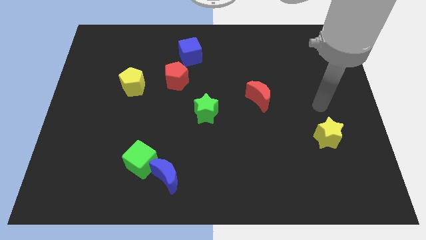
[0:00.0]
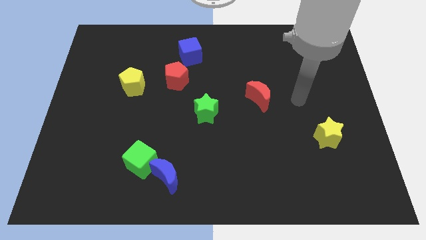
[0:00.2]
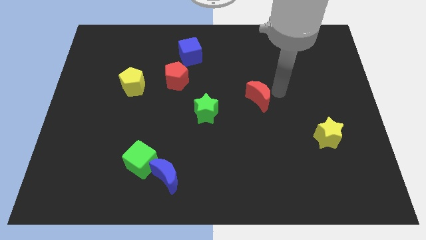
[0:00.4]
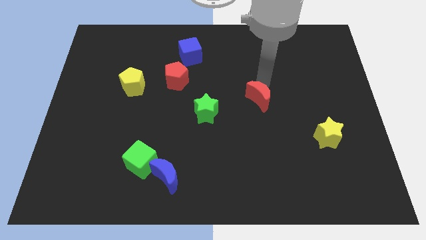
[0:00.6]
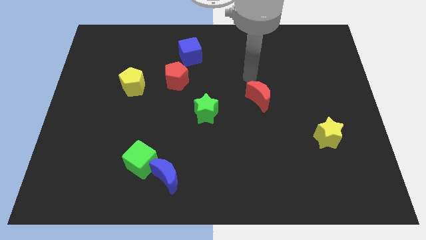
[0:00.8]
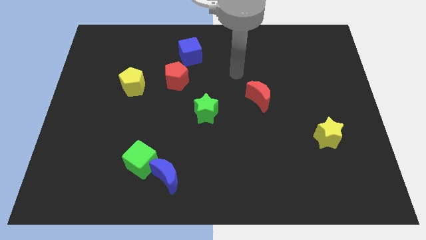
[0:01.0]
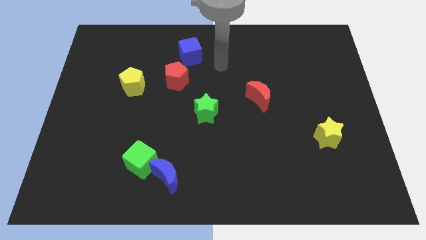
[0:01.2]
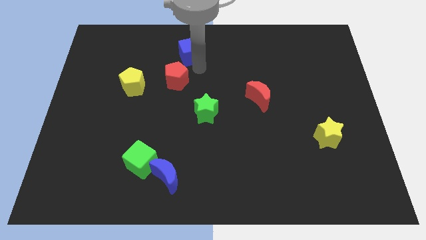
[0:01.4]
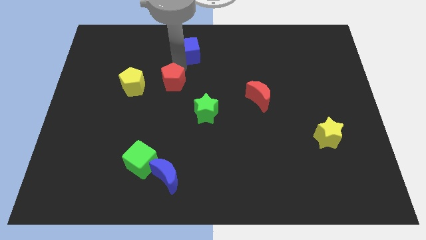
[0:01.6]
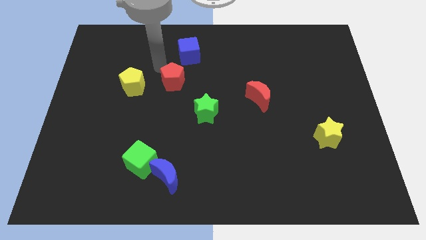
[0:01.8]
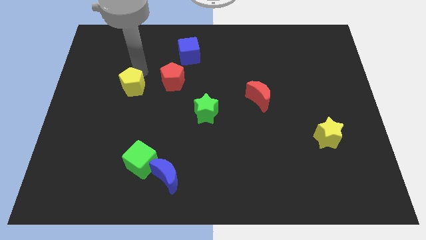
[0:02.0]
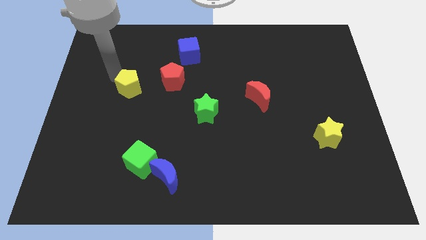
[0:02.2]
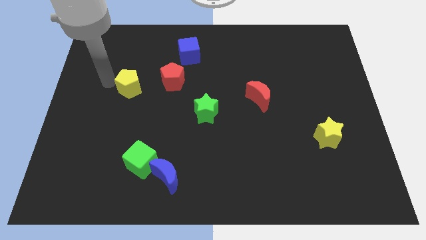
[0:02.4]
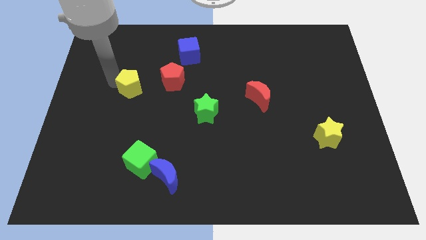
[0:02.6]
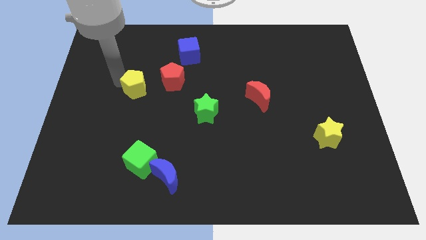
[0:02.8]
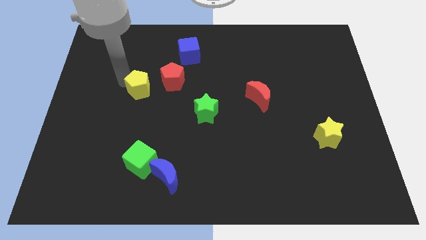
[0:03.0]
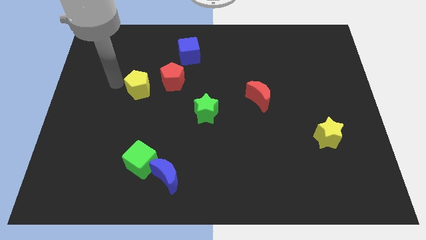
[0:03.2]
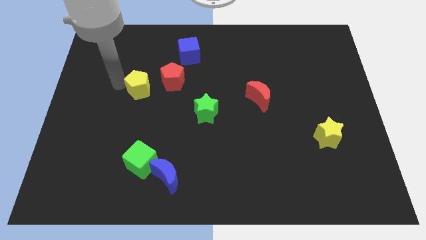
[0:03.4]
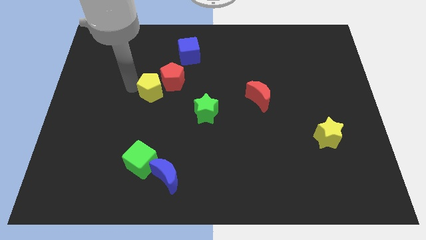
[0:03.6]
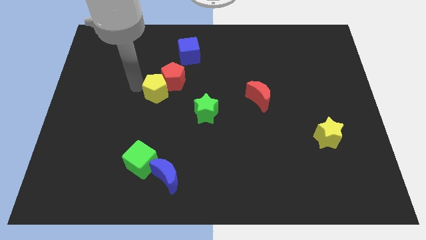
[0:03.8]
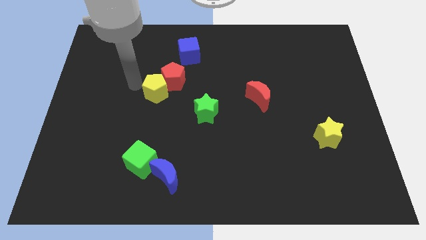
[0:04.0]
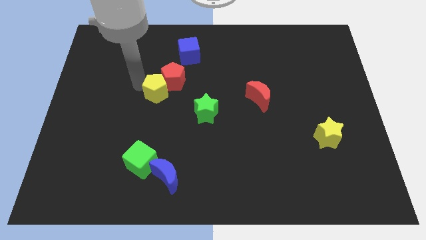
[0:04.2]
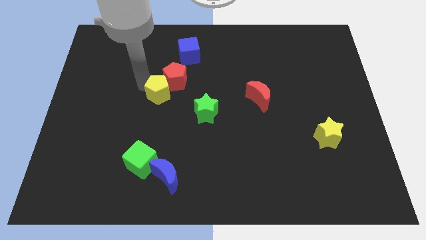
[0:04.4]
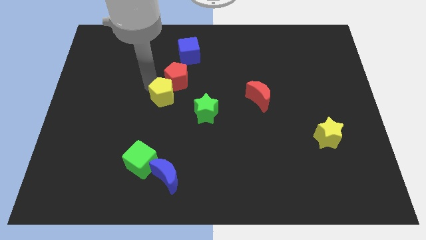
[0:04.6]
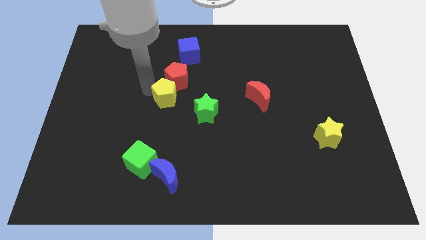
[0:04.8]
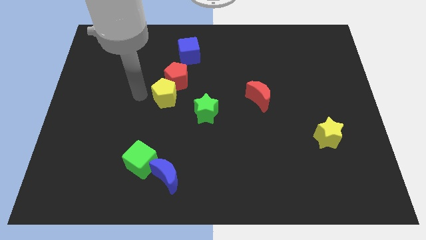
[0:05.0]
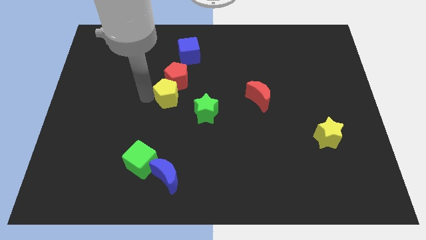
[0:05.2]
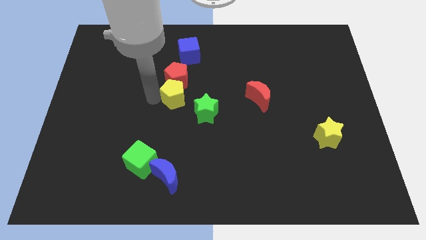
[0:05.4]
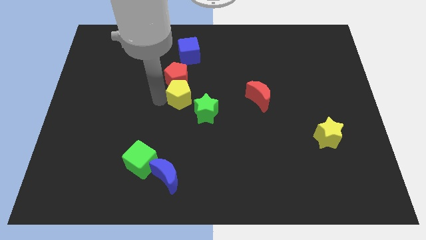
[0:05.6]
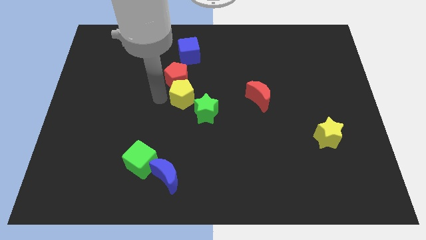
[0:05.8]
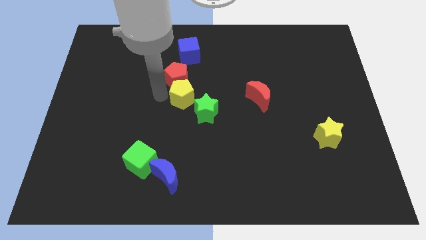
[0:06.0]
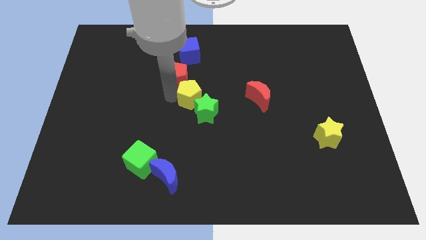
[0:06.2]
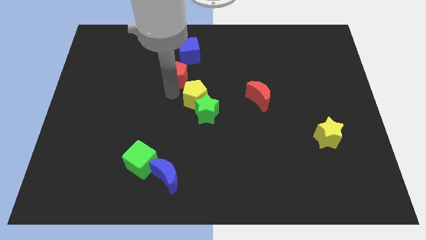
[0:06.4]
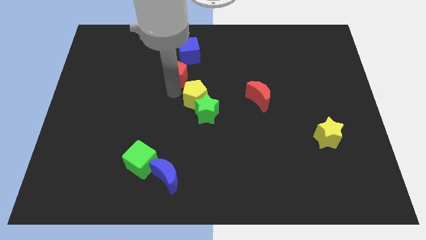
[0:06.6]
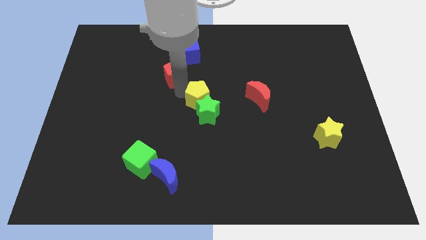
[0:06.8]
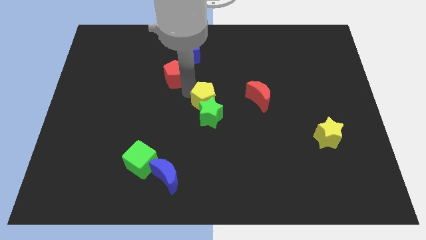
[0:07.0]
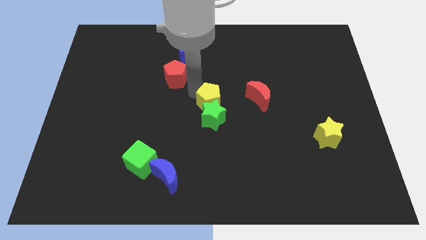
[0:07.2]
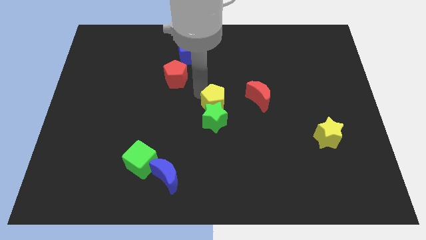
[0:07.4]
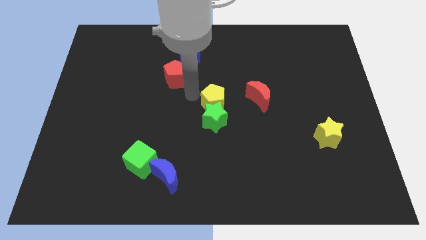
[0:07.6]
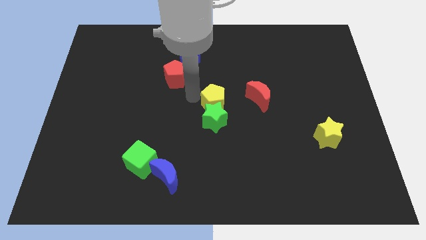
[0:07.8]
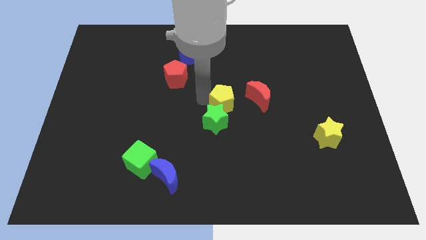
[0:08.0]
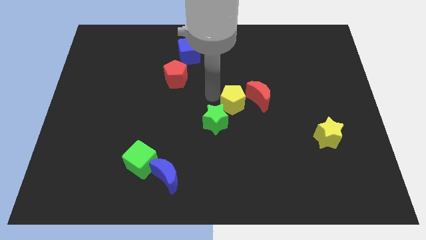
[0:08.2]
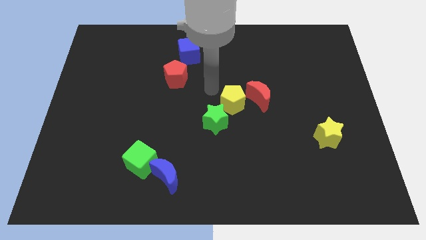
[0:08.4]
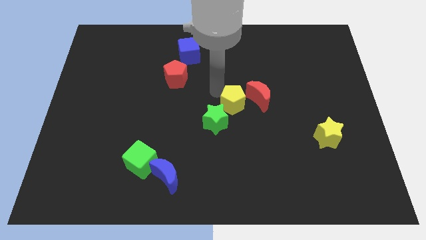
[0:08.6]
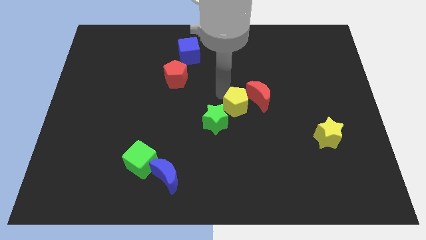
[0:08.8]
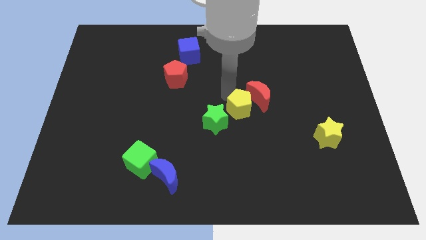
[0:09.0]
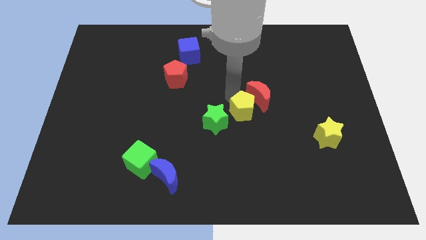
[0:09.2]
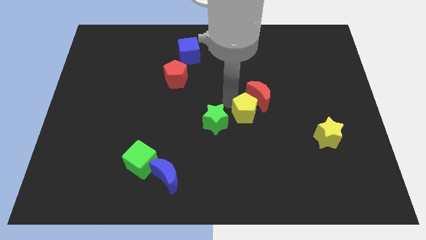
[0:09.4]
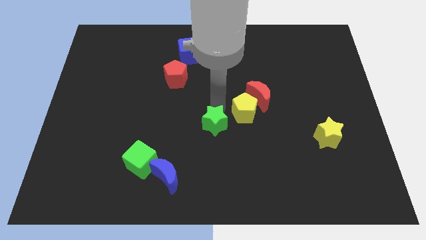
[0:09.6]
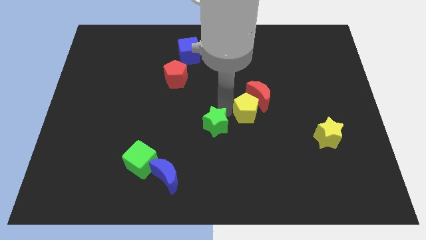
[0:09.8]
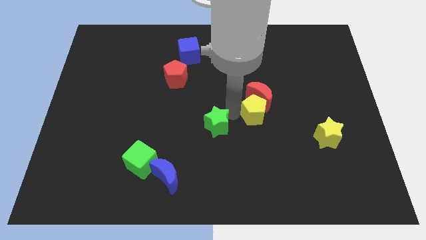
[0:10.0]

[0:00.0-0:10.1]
slide the yellow pentagon to the bottom right side of the red moon

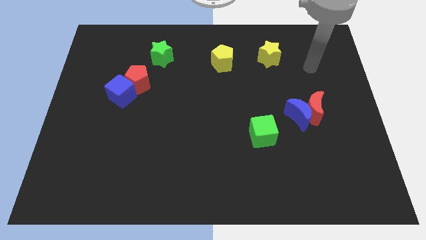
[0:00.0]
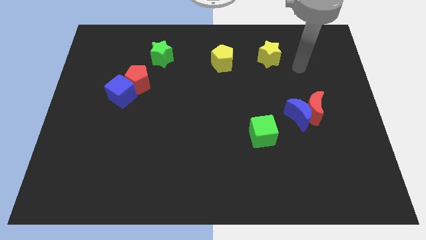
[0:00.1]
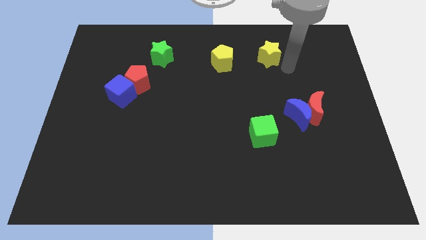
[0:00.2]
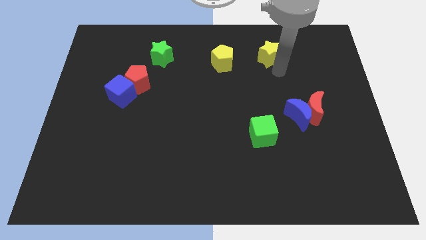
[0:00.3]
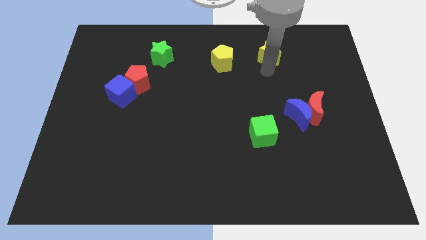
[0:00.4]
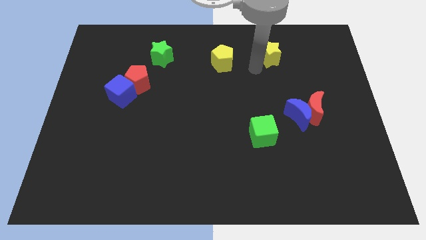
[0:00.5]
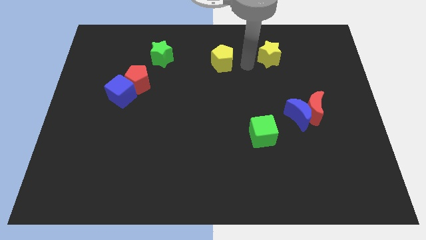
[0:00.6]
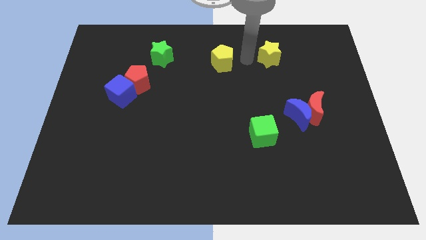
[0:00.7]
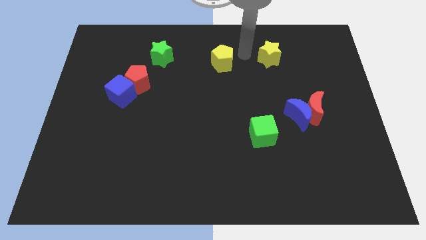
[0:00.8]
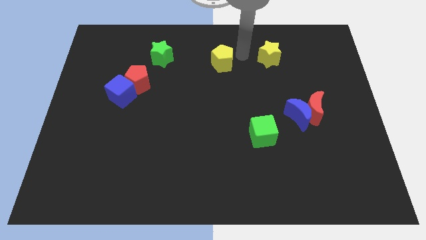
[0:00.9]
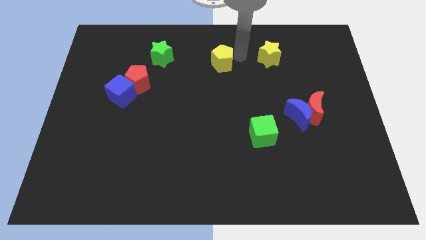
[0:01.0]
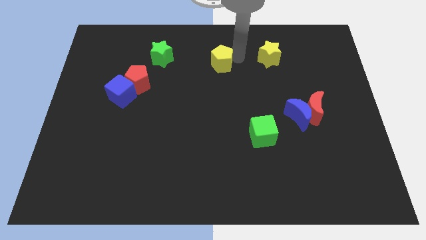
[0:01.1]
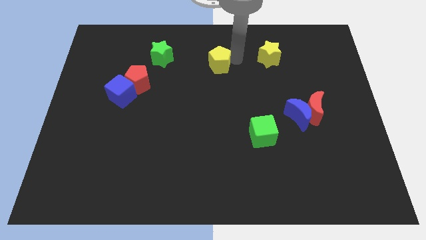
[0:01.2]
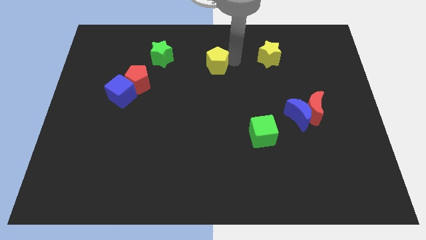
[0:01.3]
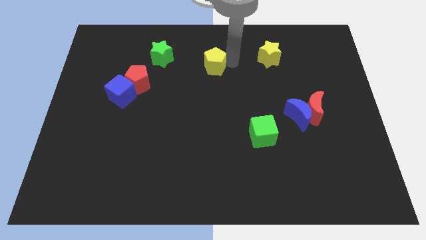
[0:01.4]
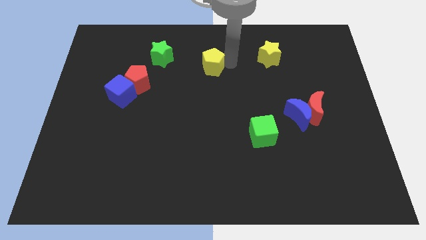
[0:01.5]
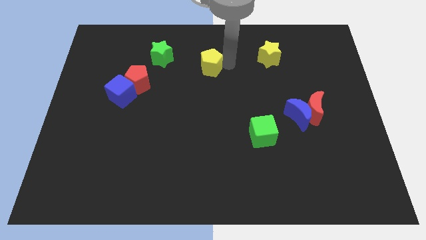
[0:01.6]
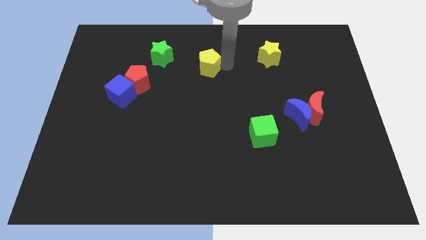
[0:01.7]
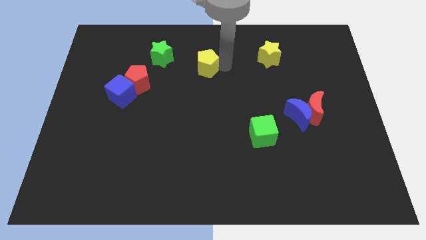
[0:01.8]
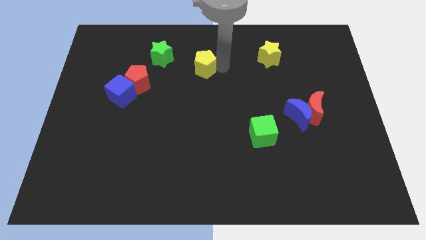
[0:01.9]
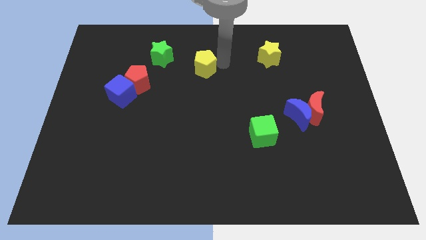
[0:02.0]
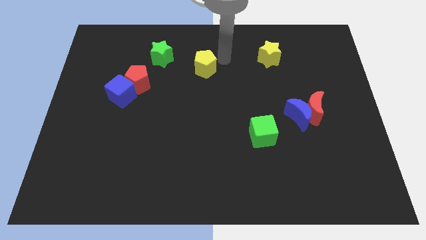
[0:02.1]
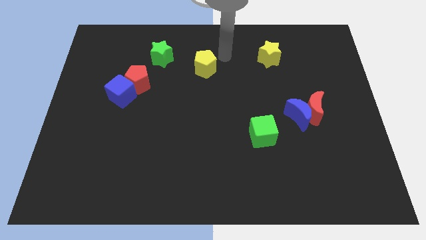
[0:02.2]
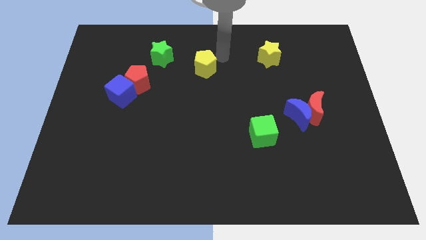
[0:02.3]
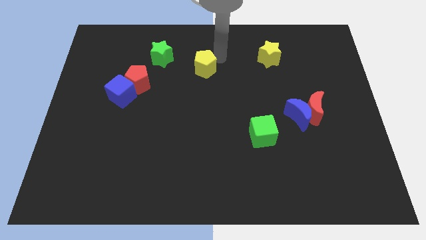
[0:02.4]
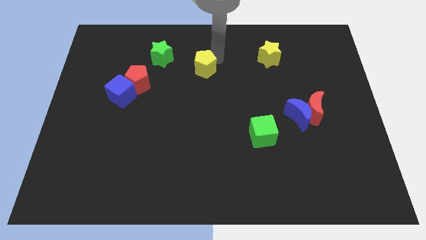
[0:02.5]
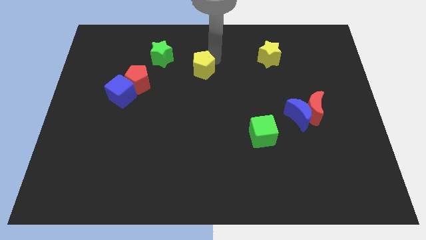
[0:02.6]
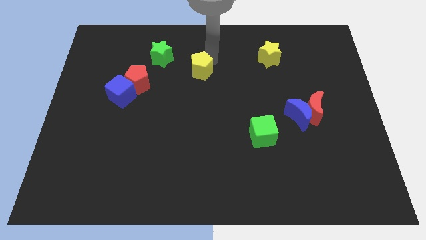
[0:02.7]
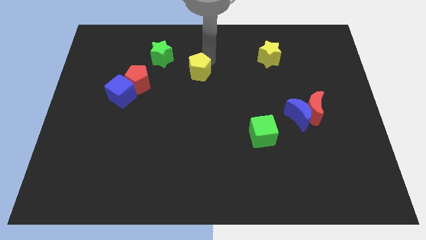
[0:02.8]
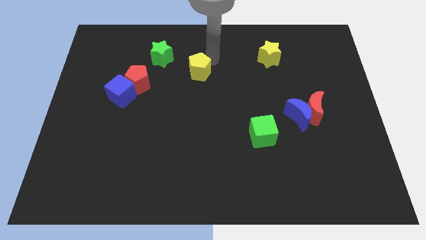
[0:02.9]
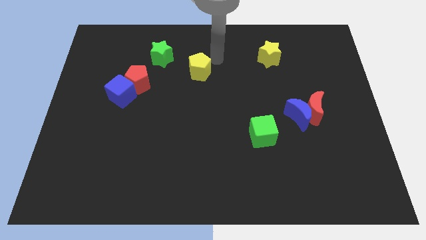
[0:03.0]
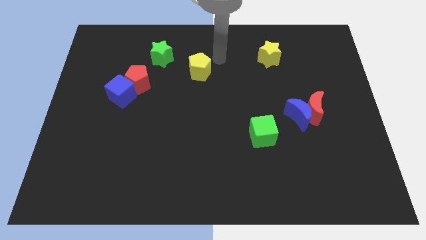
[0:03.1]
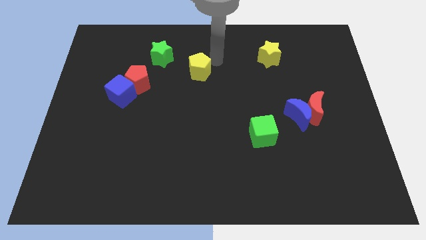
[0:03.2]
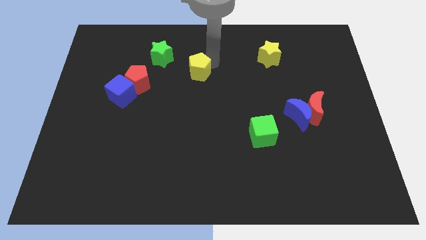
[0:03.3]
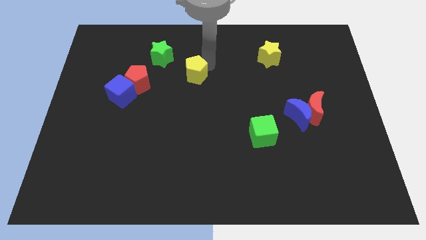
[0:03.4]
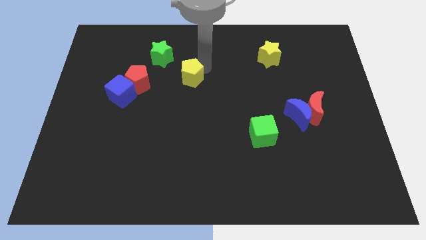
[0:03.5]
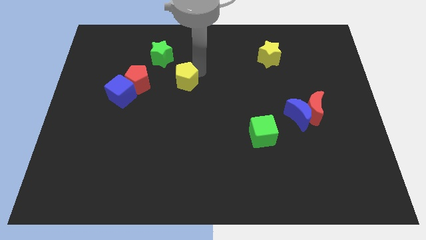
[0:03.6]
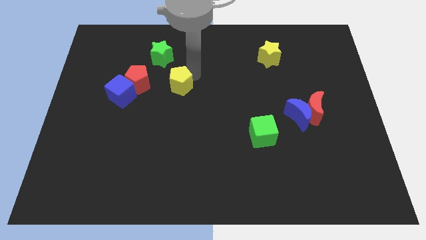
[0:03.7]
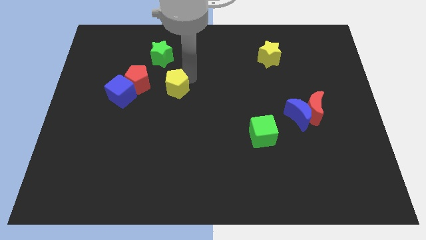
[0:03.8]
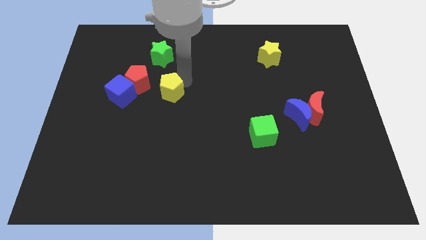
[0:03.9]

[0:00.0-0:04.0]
slide the yellow pentagon to the bottom right of the red pentagon
